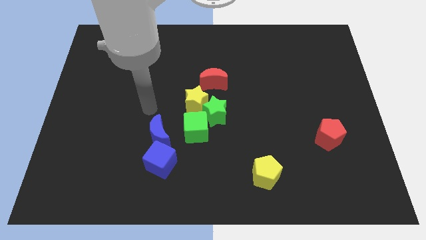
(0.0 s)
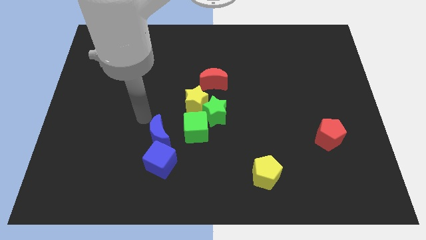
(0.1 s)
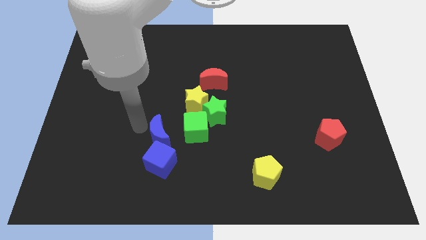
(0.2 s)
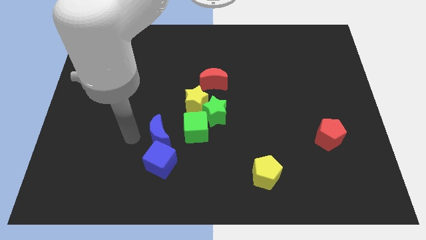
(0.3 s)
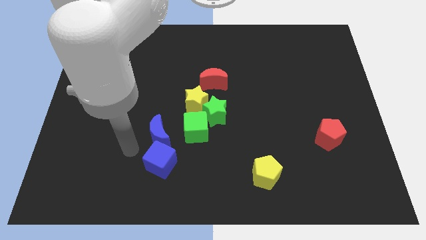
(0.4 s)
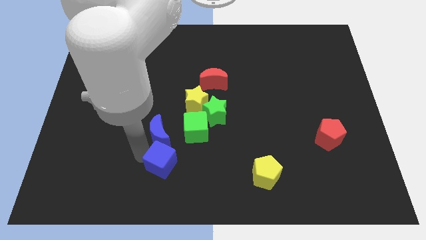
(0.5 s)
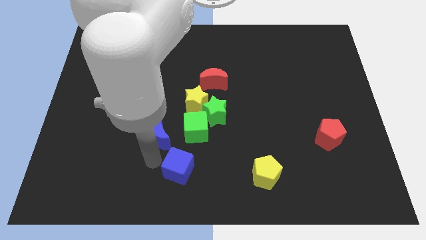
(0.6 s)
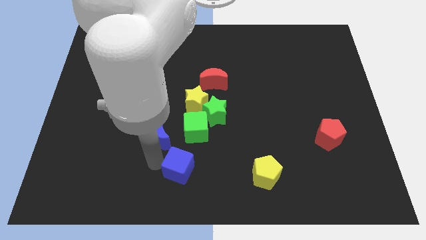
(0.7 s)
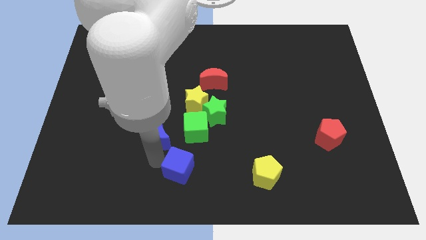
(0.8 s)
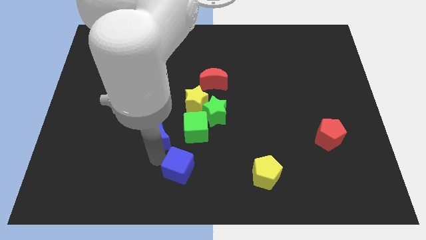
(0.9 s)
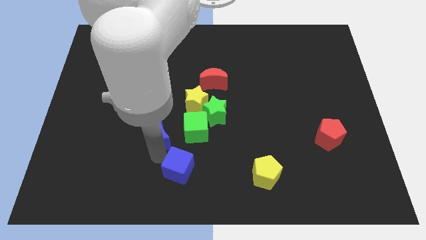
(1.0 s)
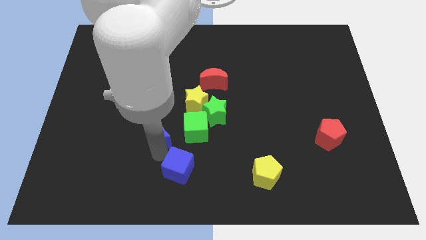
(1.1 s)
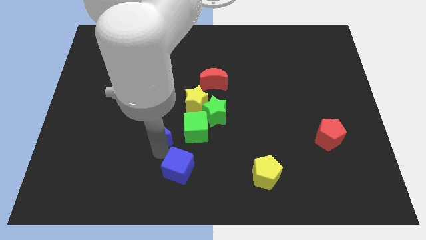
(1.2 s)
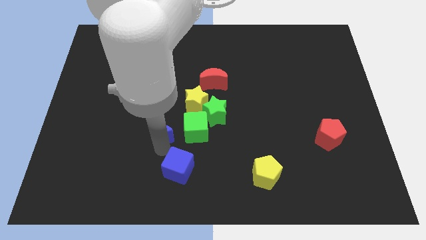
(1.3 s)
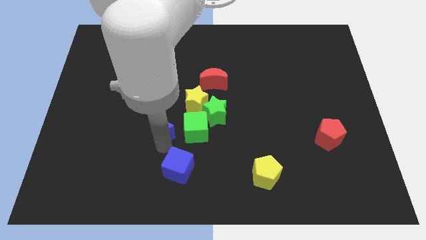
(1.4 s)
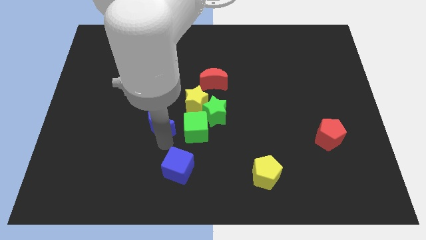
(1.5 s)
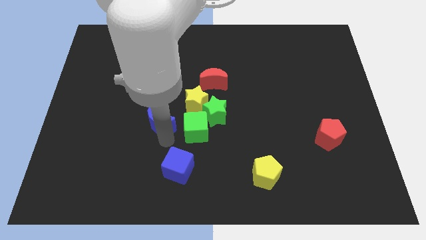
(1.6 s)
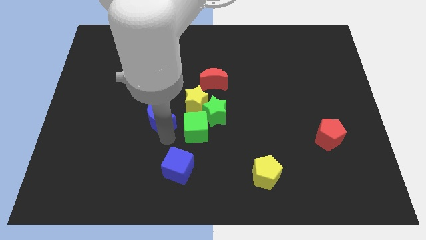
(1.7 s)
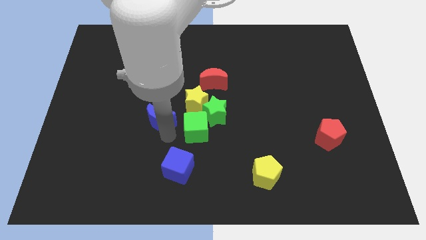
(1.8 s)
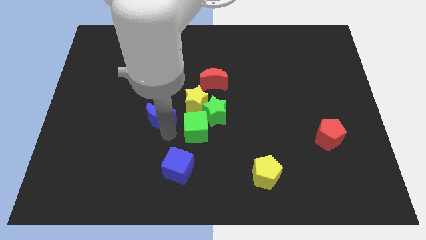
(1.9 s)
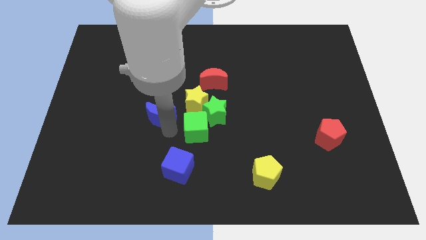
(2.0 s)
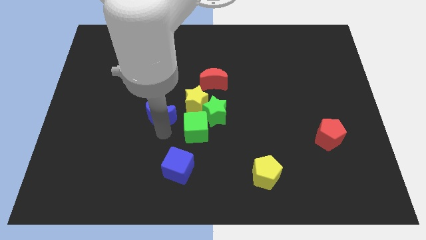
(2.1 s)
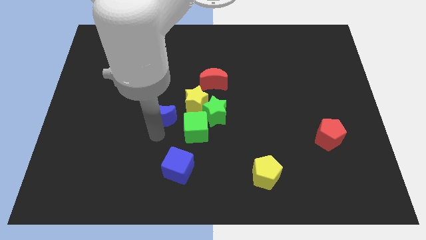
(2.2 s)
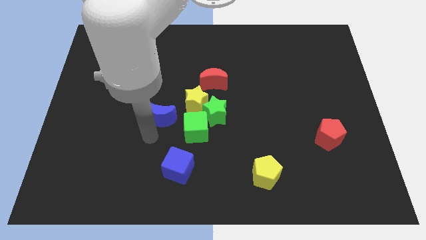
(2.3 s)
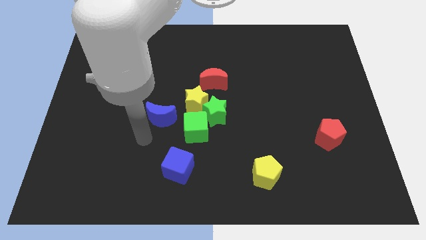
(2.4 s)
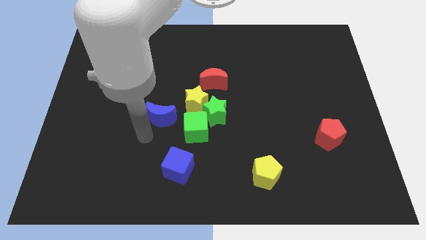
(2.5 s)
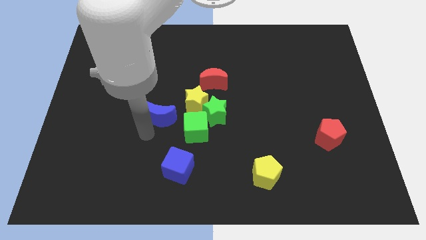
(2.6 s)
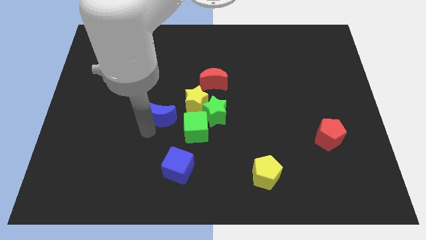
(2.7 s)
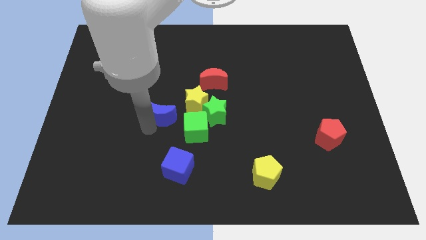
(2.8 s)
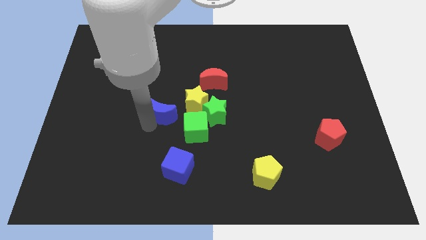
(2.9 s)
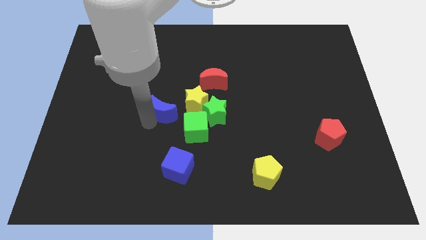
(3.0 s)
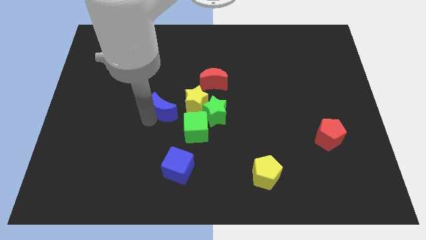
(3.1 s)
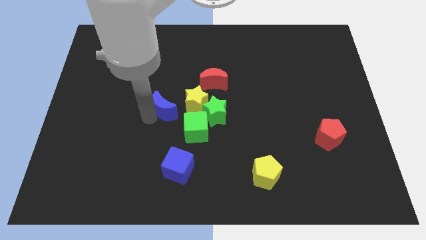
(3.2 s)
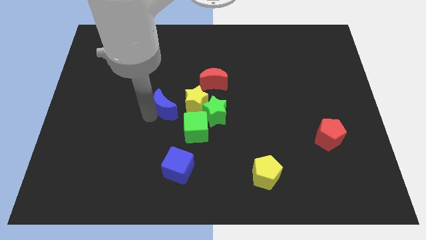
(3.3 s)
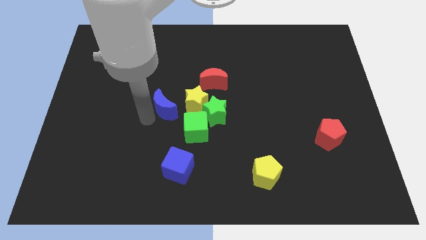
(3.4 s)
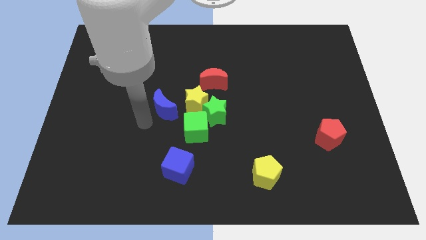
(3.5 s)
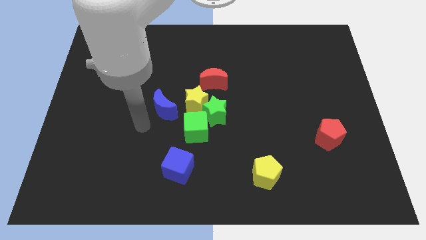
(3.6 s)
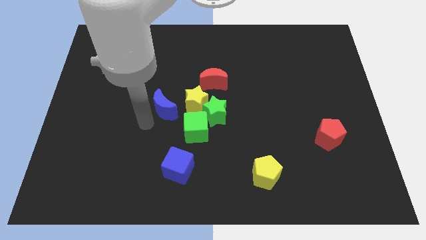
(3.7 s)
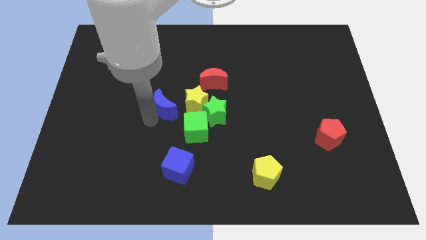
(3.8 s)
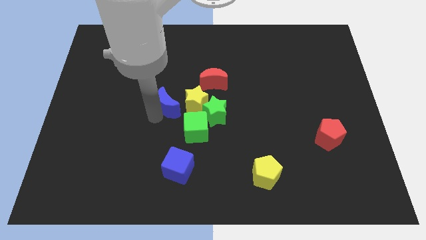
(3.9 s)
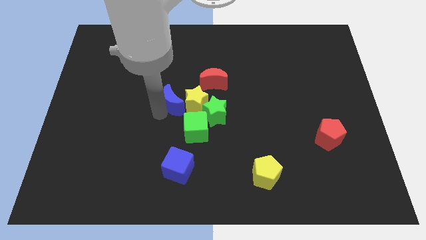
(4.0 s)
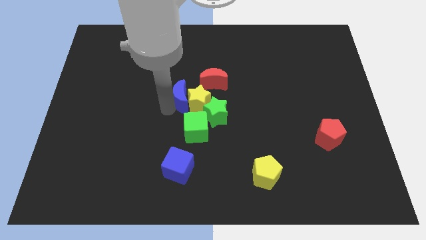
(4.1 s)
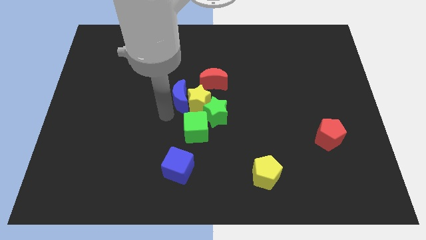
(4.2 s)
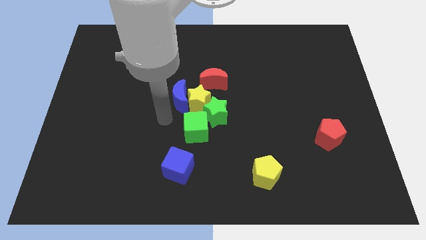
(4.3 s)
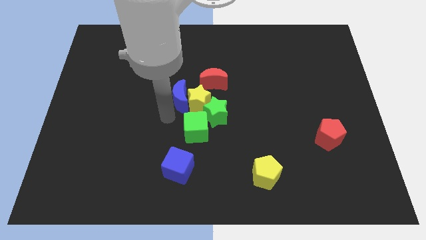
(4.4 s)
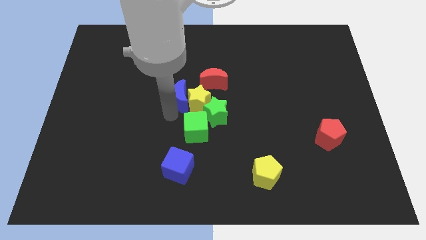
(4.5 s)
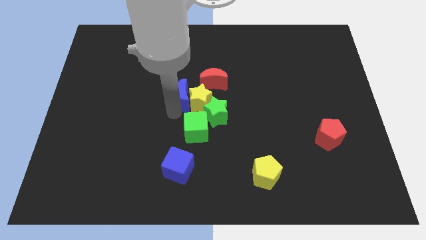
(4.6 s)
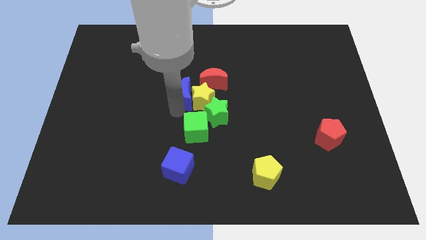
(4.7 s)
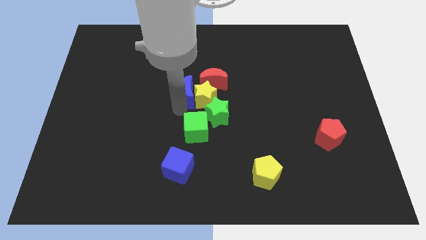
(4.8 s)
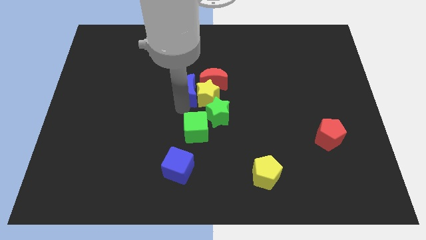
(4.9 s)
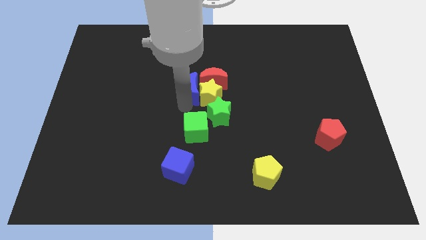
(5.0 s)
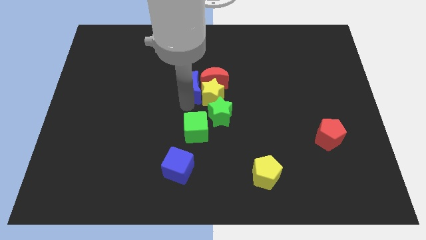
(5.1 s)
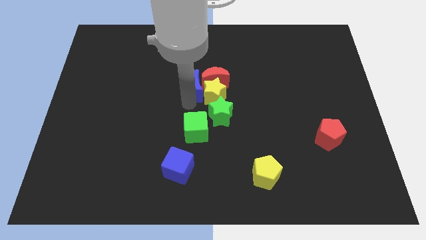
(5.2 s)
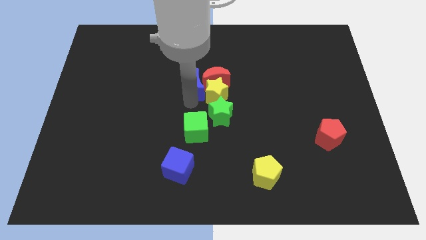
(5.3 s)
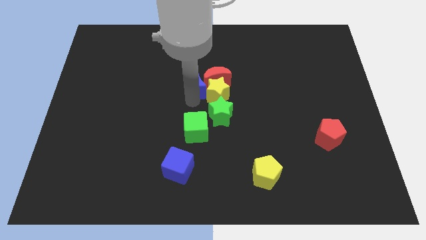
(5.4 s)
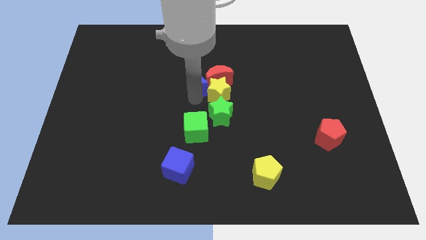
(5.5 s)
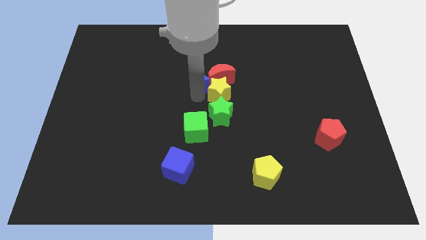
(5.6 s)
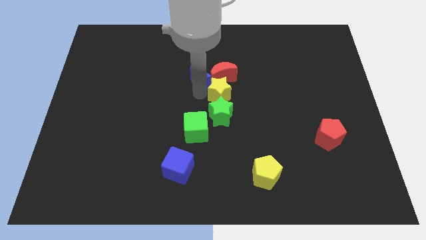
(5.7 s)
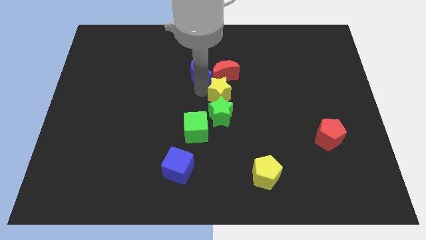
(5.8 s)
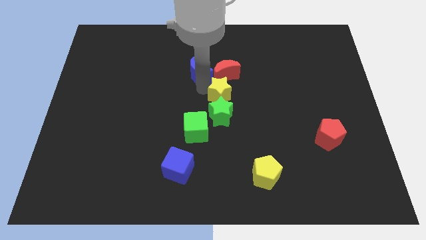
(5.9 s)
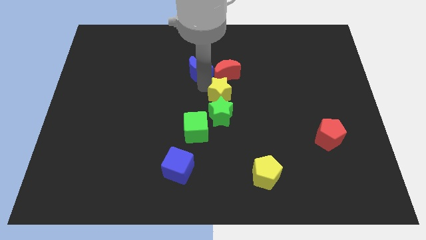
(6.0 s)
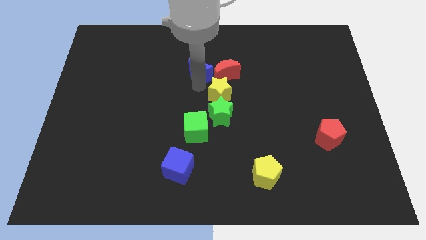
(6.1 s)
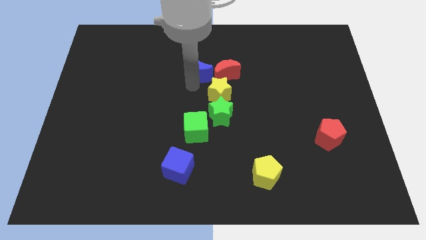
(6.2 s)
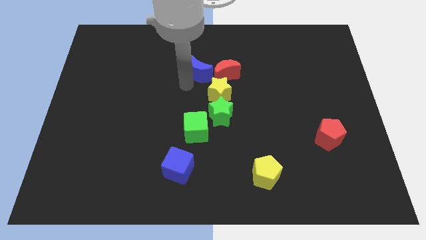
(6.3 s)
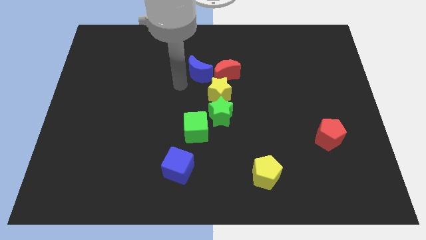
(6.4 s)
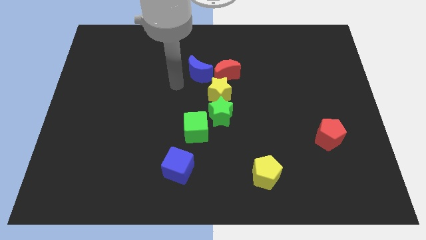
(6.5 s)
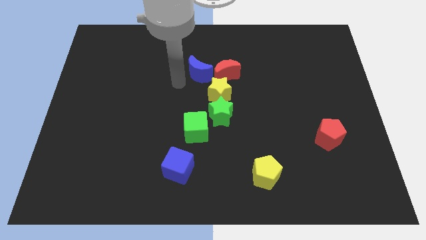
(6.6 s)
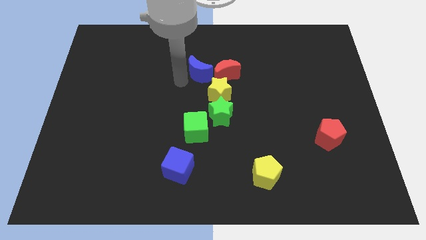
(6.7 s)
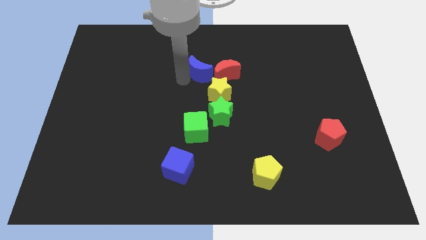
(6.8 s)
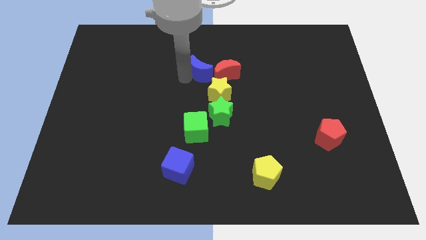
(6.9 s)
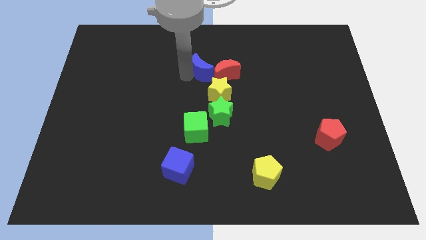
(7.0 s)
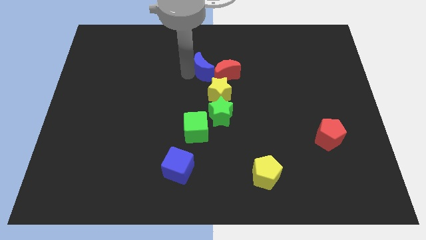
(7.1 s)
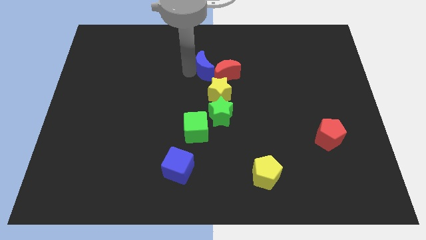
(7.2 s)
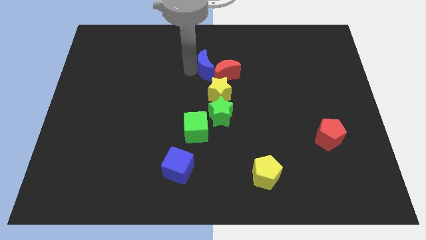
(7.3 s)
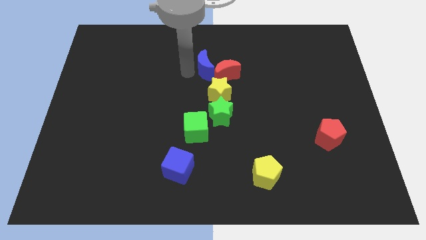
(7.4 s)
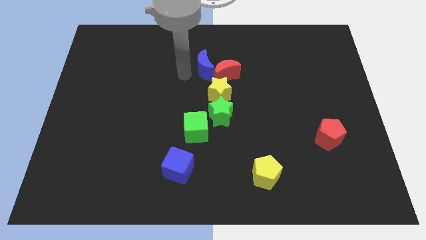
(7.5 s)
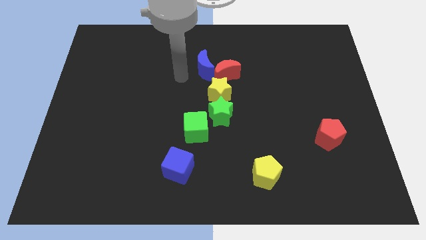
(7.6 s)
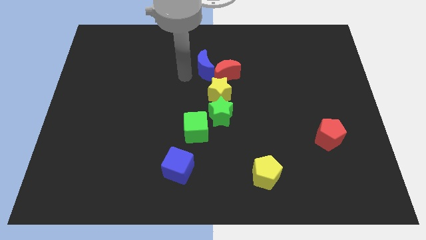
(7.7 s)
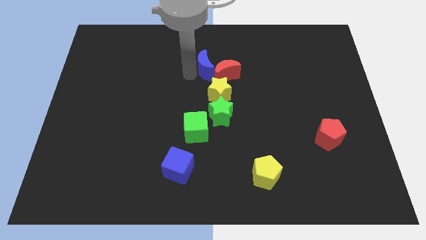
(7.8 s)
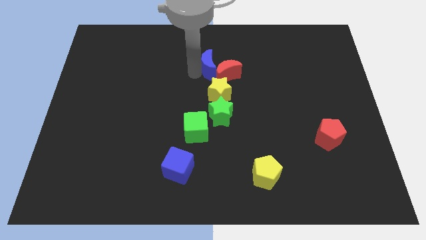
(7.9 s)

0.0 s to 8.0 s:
push the blue moon up and then right
